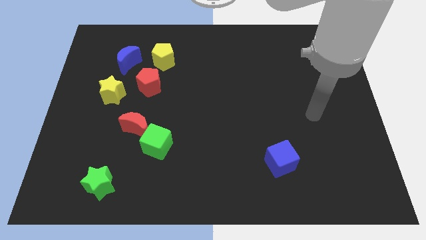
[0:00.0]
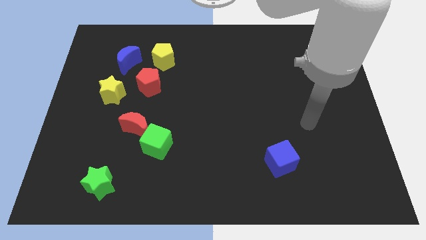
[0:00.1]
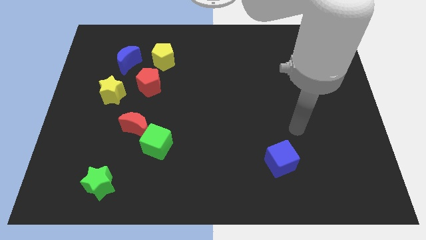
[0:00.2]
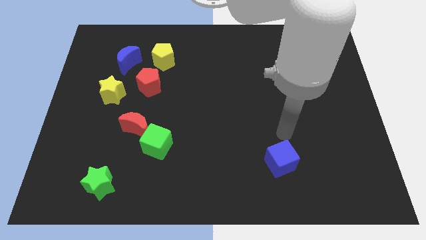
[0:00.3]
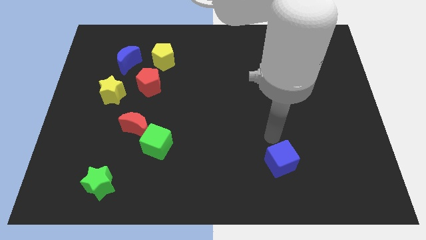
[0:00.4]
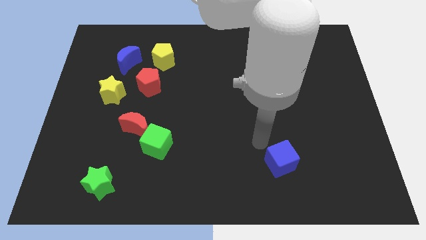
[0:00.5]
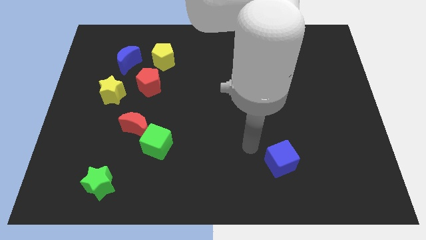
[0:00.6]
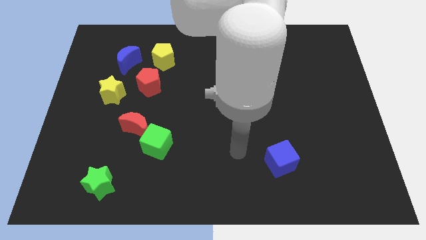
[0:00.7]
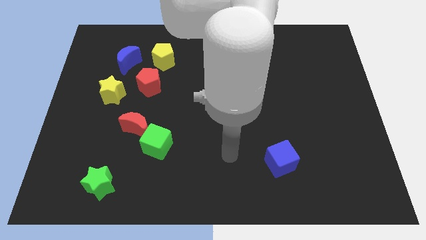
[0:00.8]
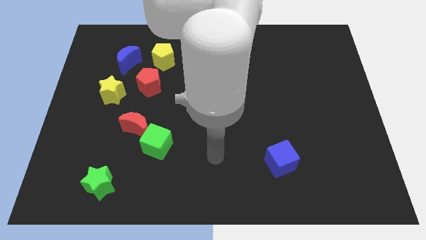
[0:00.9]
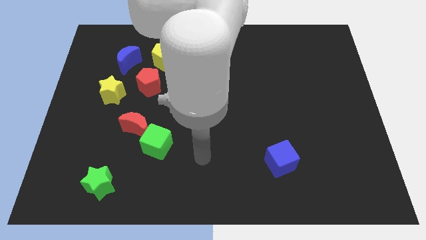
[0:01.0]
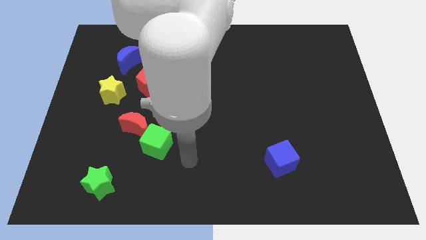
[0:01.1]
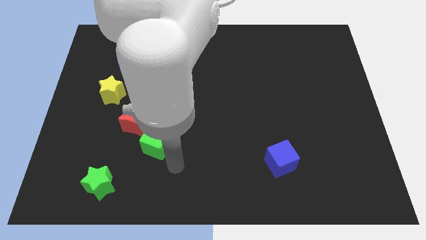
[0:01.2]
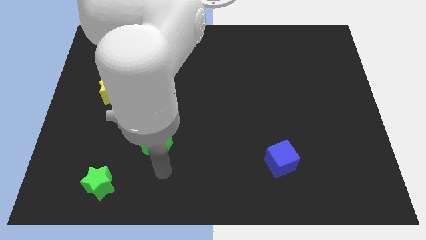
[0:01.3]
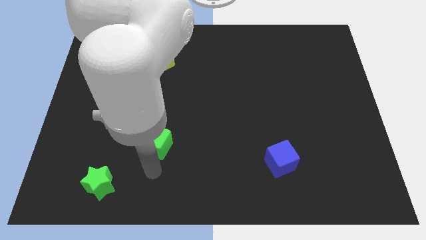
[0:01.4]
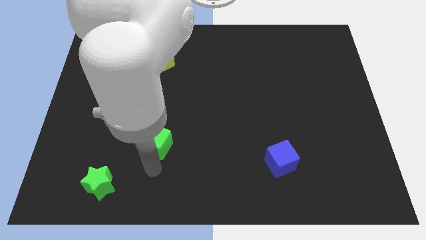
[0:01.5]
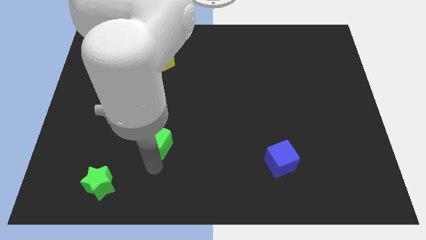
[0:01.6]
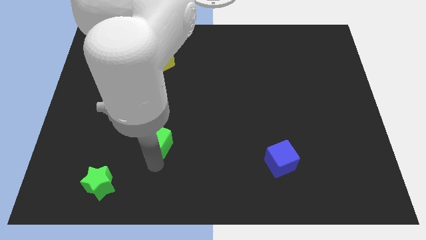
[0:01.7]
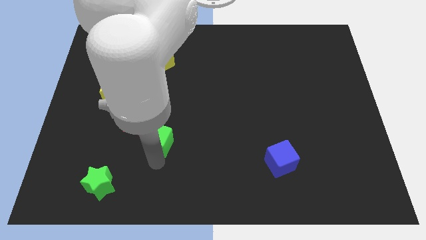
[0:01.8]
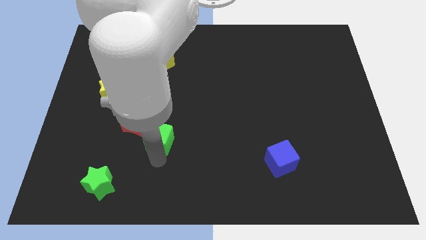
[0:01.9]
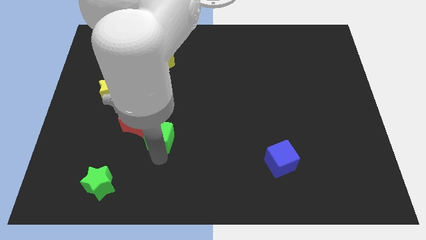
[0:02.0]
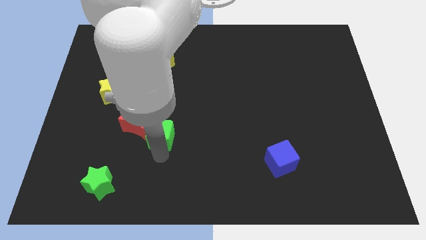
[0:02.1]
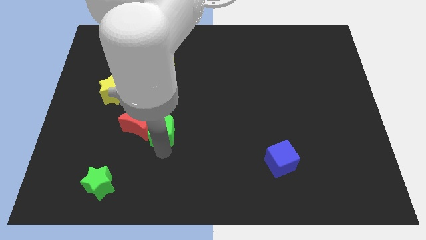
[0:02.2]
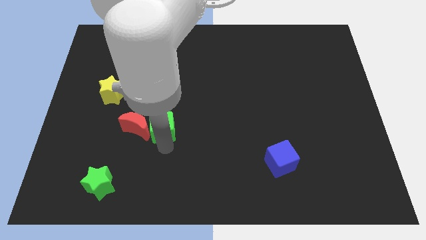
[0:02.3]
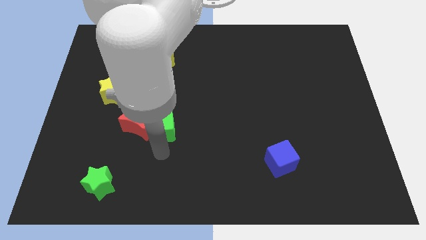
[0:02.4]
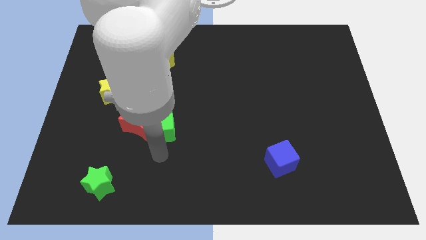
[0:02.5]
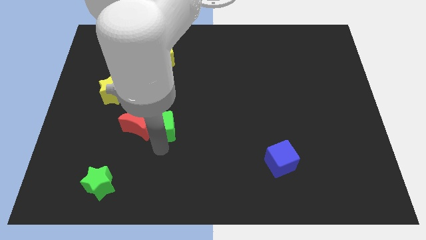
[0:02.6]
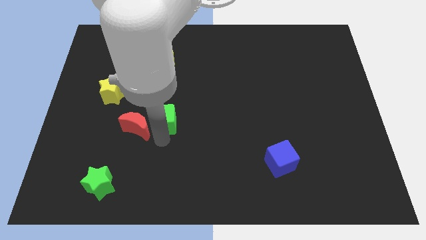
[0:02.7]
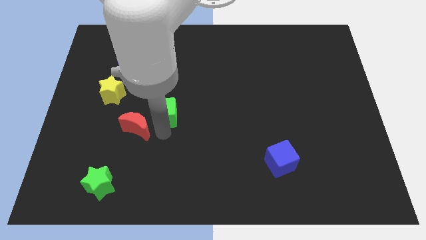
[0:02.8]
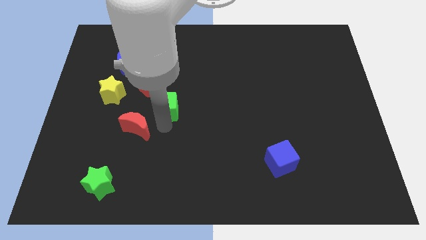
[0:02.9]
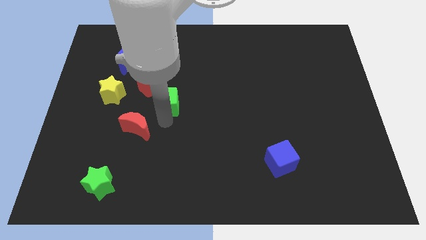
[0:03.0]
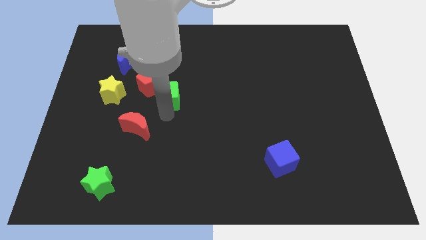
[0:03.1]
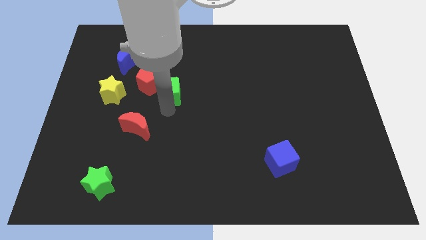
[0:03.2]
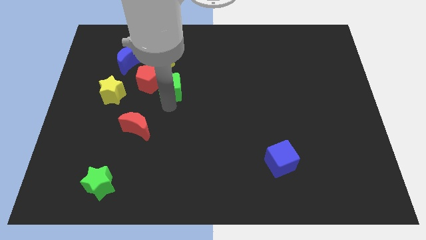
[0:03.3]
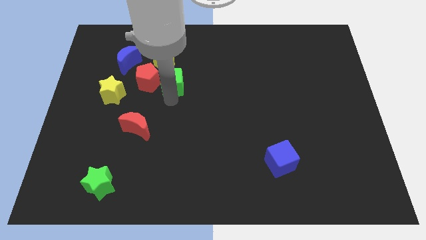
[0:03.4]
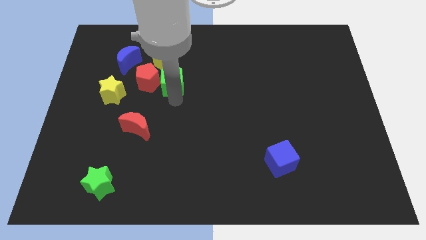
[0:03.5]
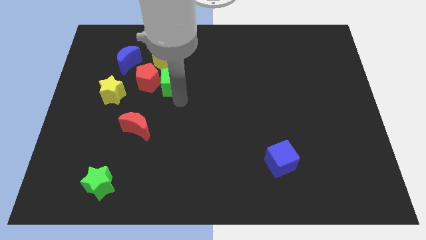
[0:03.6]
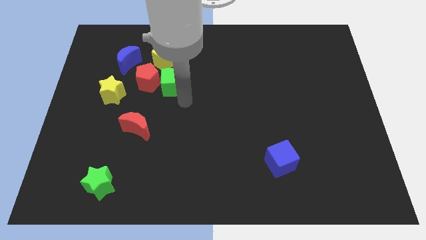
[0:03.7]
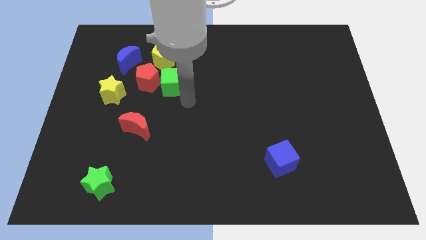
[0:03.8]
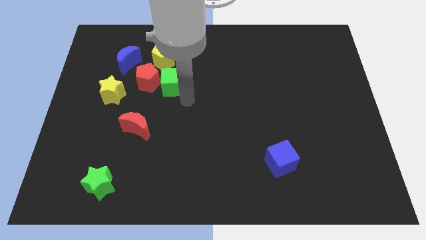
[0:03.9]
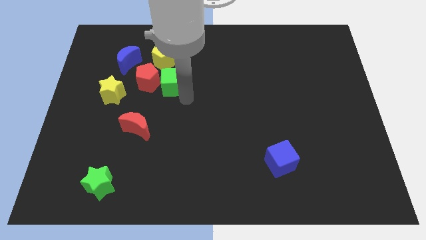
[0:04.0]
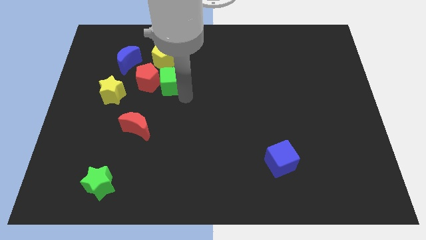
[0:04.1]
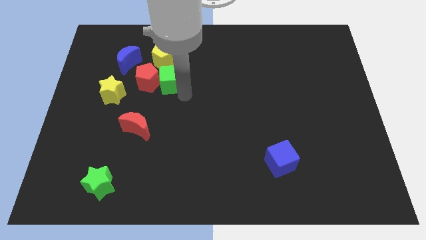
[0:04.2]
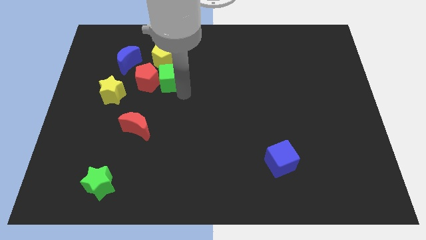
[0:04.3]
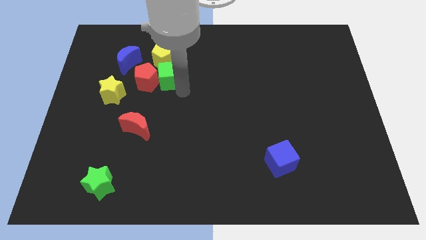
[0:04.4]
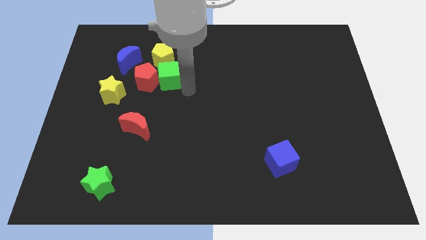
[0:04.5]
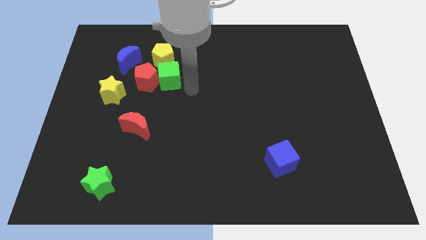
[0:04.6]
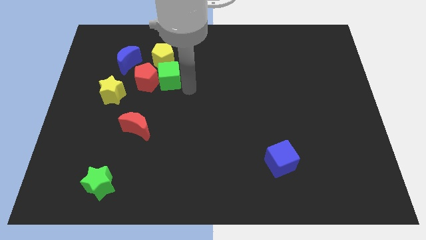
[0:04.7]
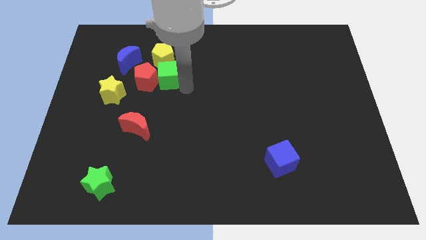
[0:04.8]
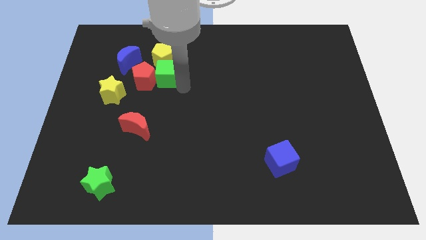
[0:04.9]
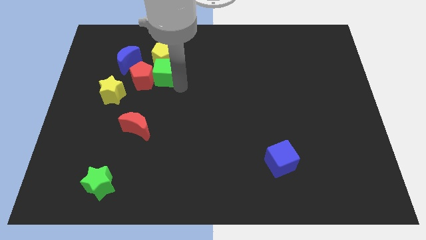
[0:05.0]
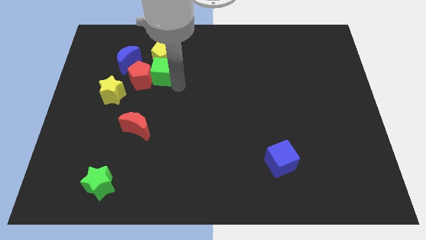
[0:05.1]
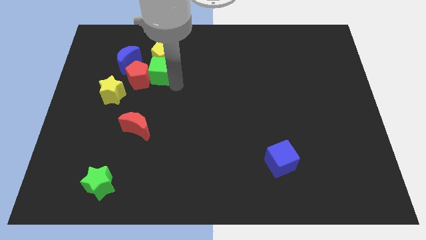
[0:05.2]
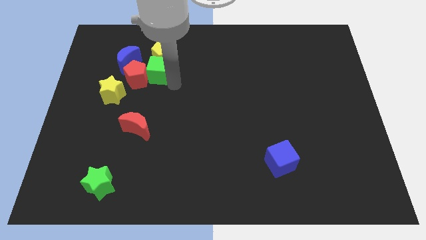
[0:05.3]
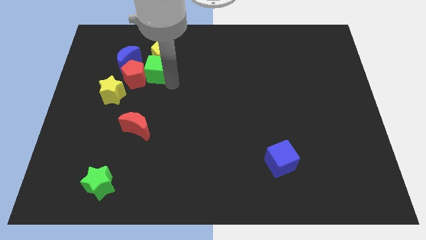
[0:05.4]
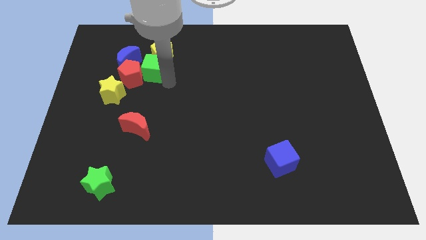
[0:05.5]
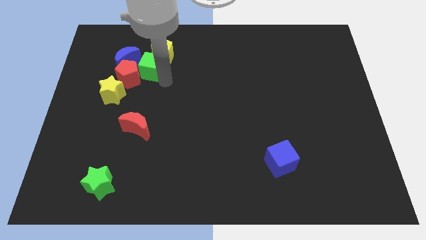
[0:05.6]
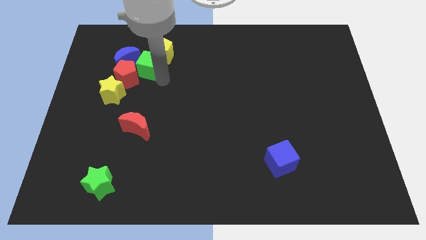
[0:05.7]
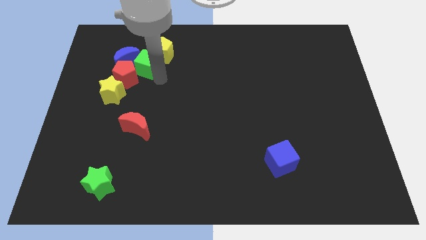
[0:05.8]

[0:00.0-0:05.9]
slide the green cube to the blue moon

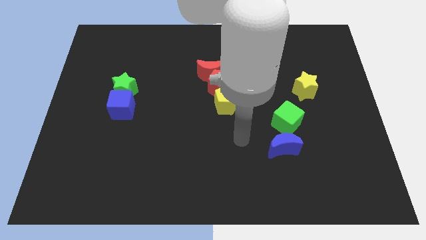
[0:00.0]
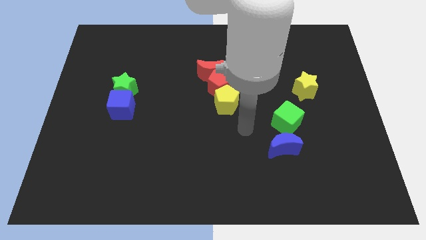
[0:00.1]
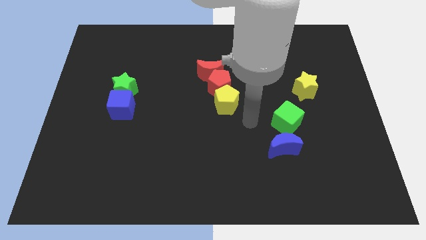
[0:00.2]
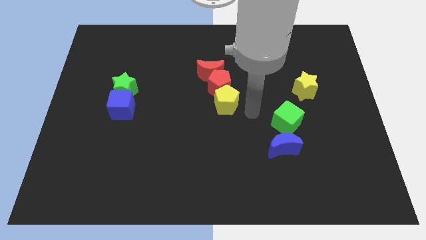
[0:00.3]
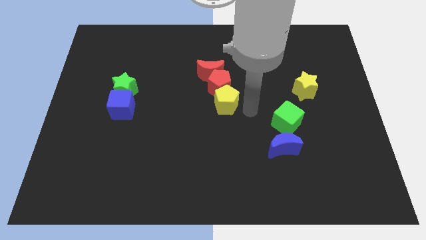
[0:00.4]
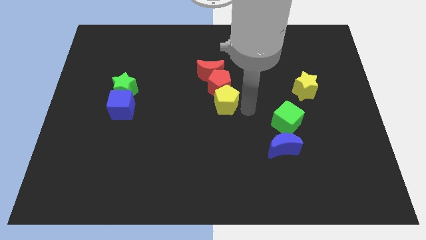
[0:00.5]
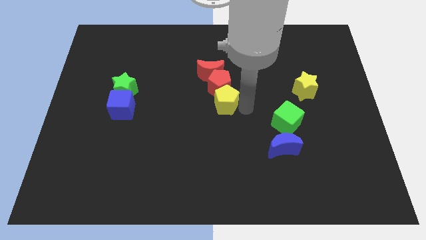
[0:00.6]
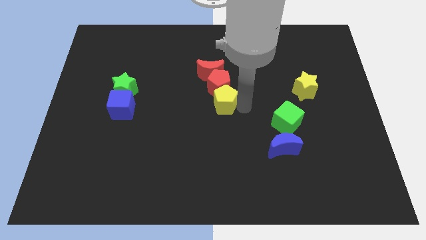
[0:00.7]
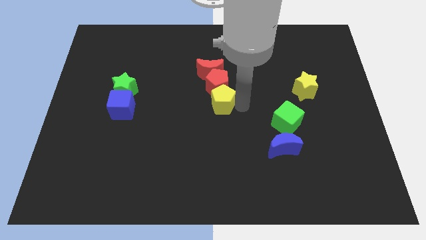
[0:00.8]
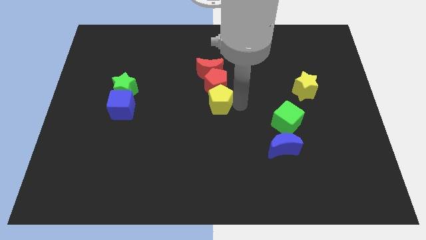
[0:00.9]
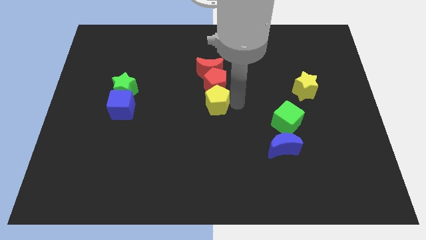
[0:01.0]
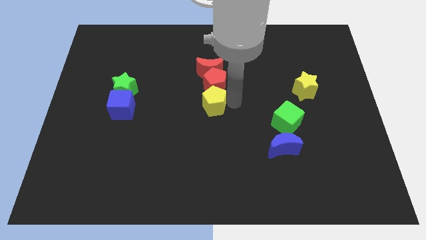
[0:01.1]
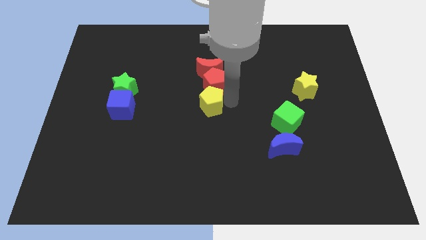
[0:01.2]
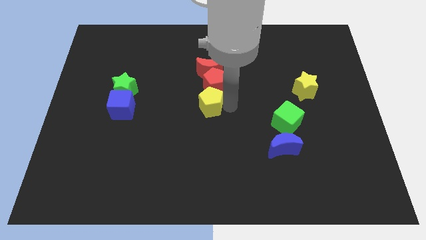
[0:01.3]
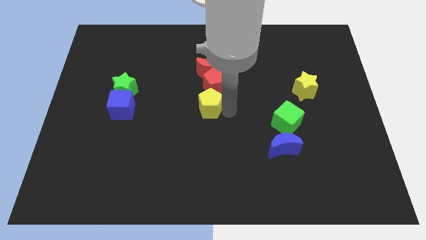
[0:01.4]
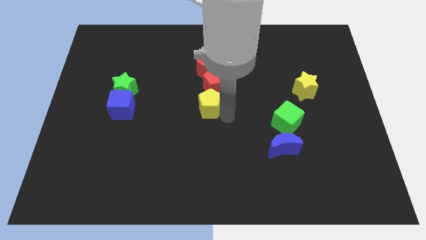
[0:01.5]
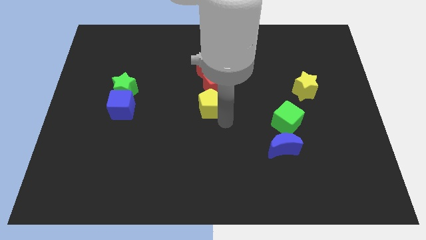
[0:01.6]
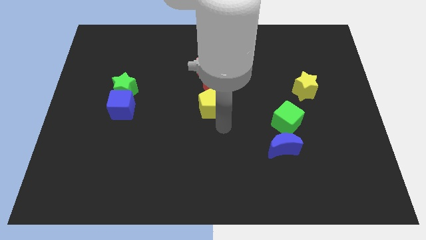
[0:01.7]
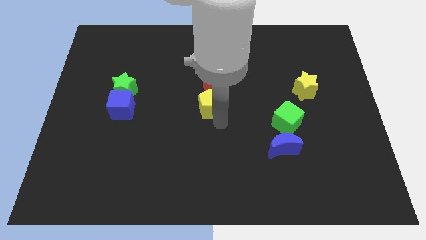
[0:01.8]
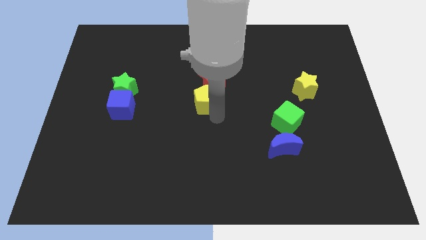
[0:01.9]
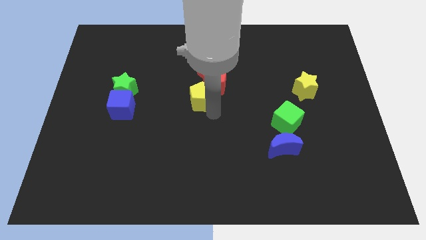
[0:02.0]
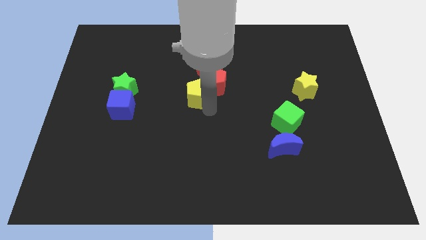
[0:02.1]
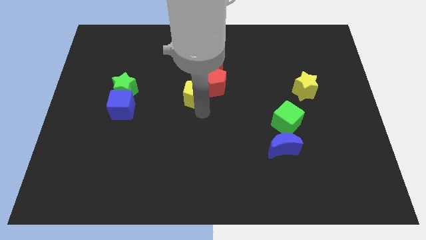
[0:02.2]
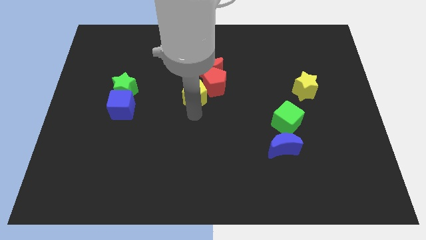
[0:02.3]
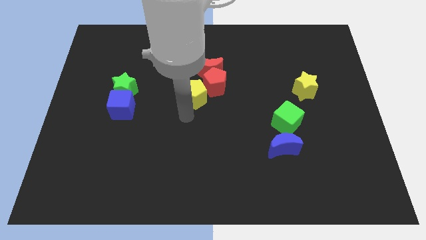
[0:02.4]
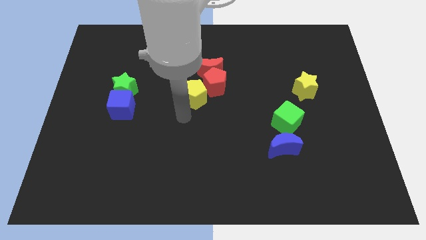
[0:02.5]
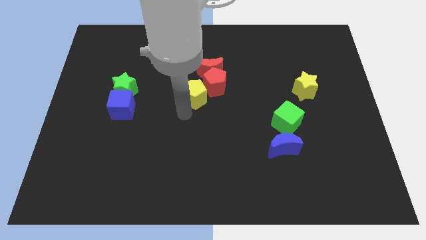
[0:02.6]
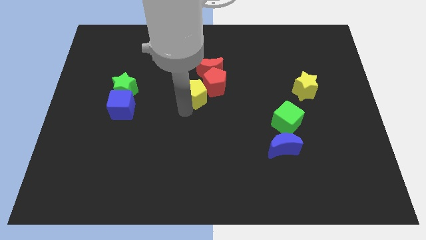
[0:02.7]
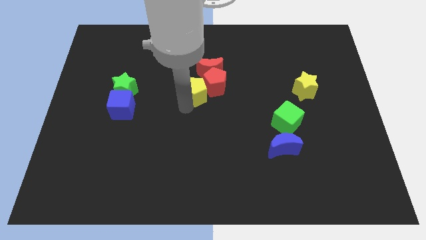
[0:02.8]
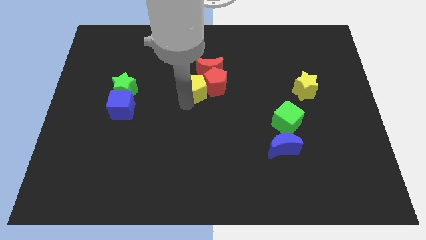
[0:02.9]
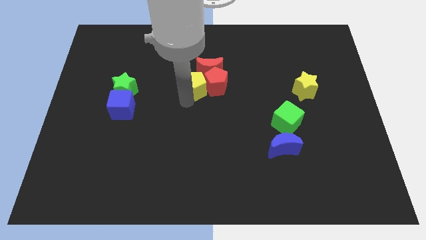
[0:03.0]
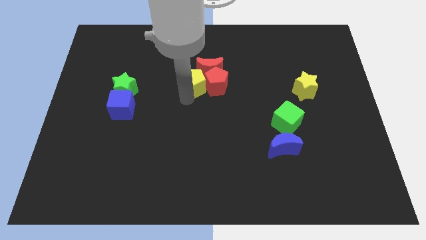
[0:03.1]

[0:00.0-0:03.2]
put the yellow pentagon towards the red moon
